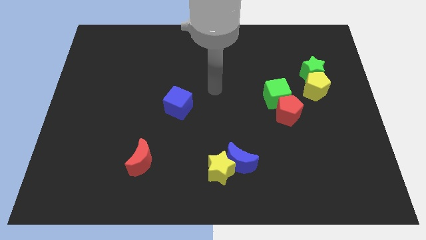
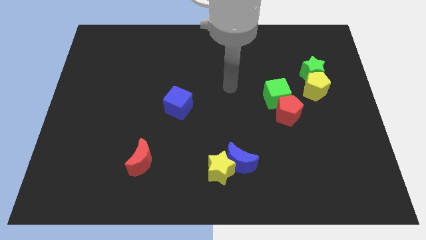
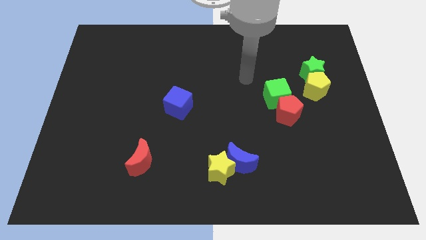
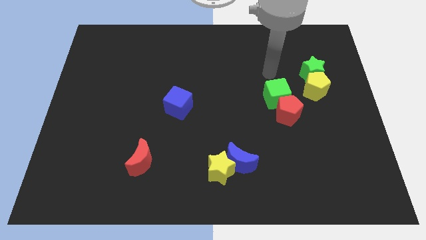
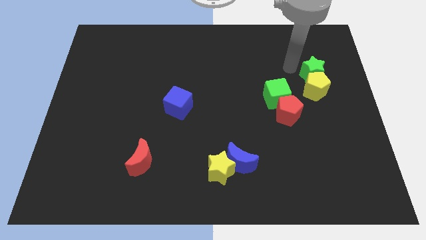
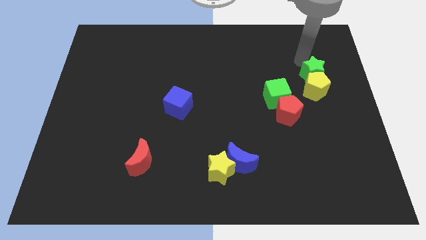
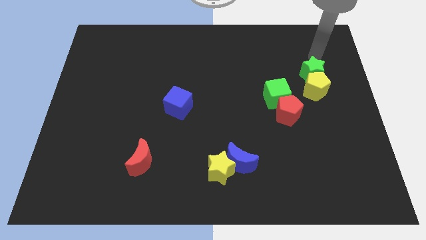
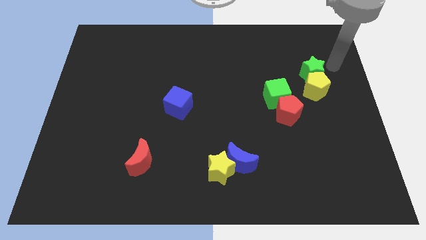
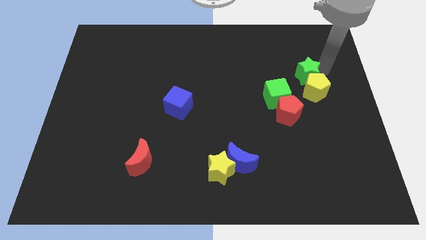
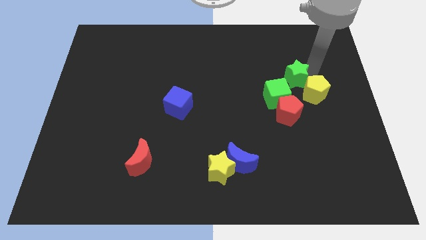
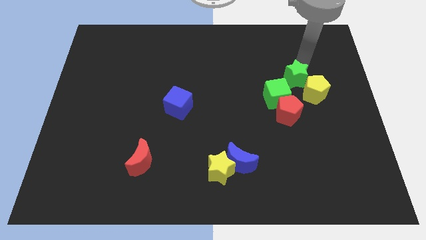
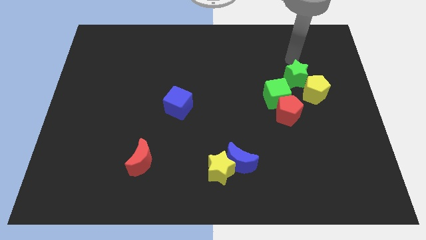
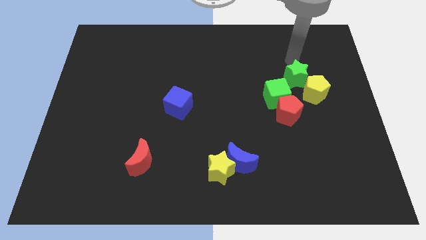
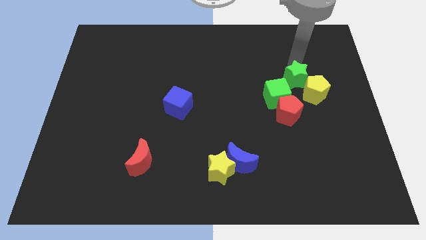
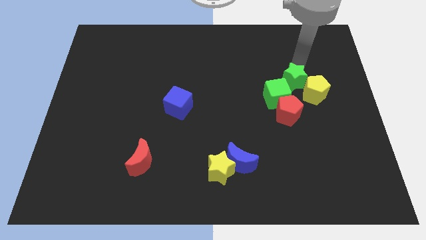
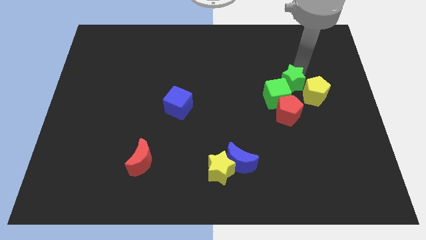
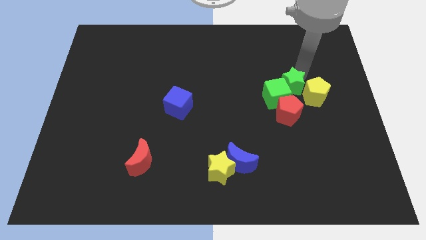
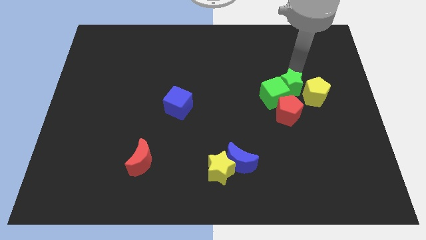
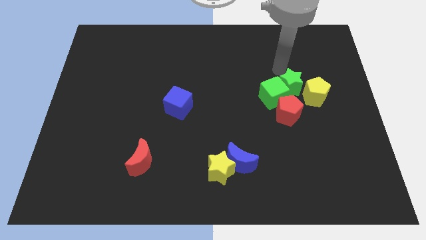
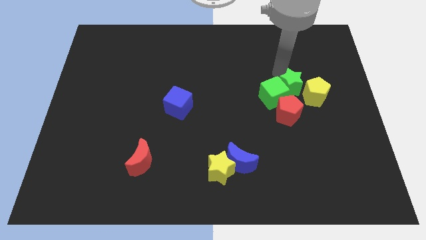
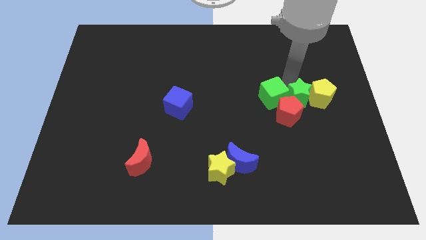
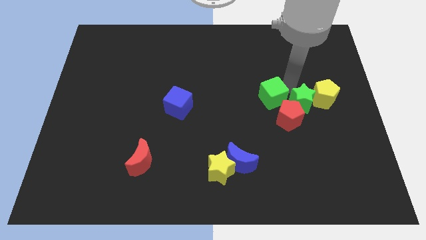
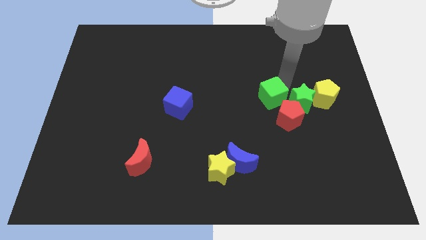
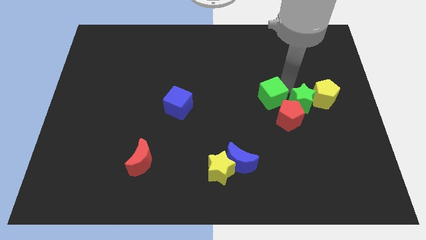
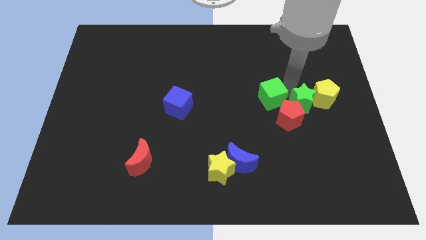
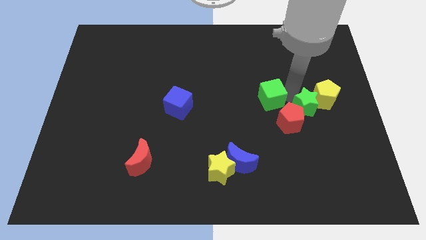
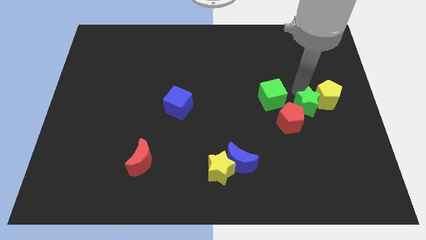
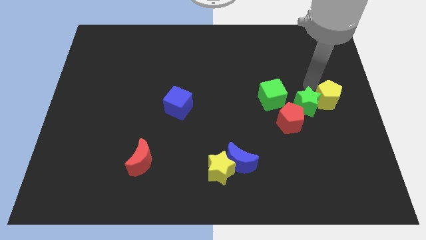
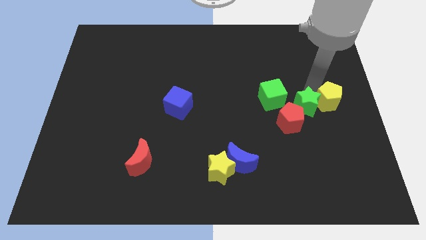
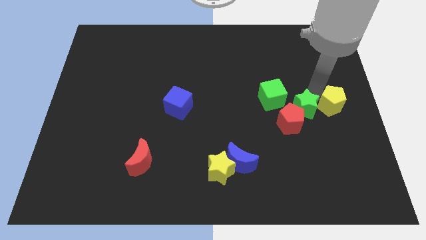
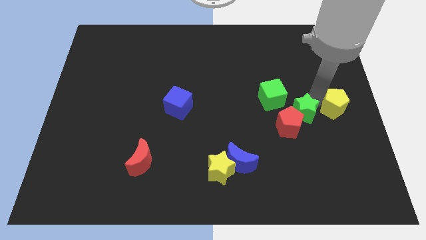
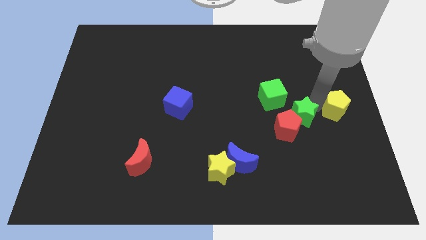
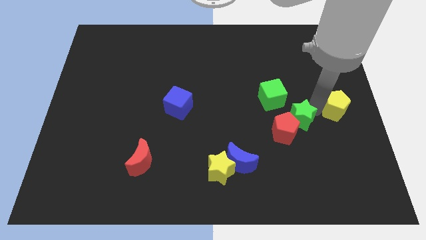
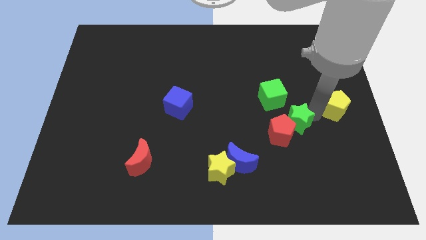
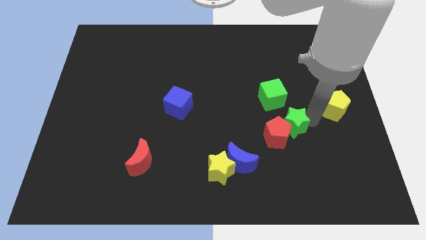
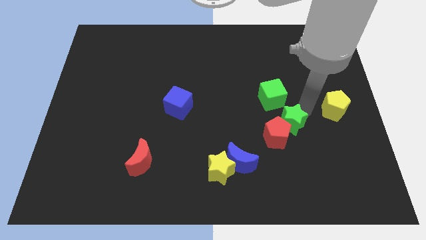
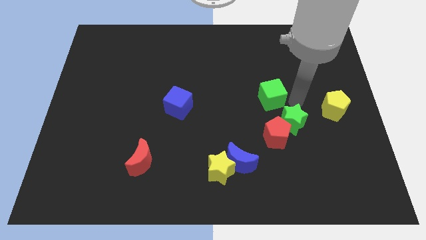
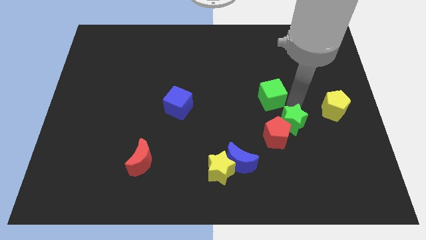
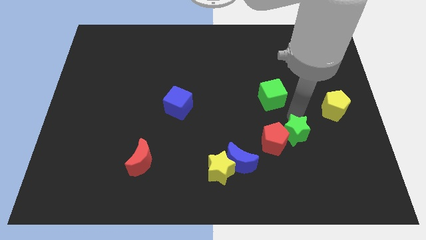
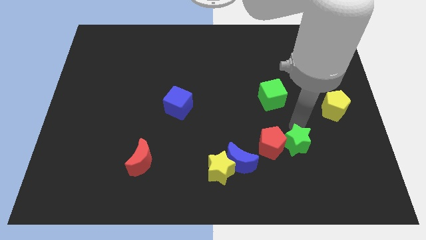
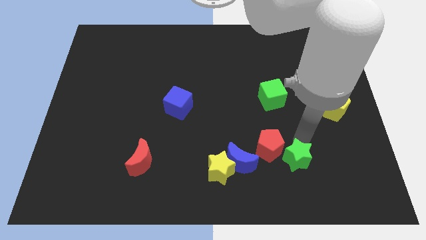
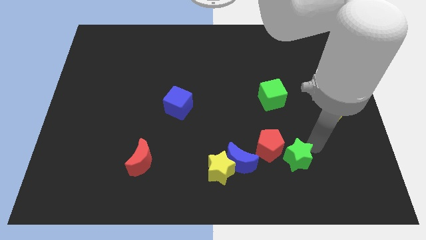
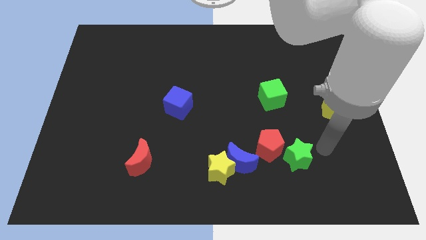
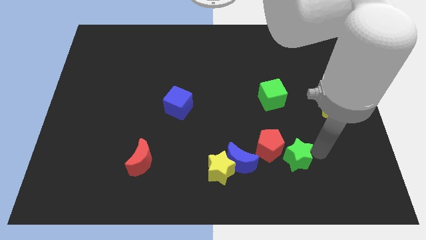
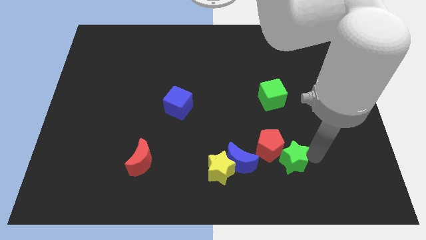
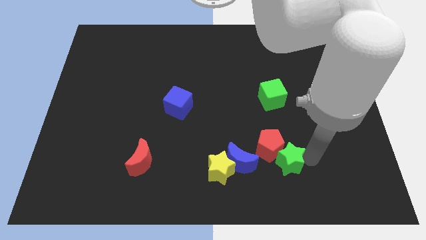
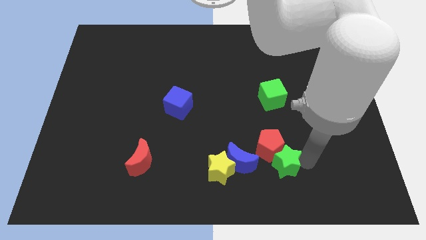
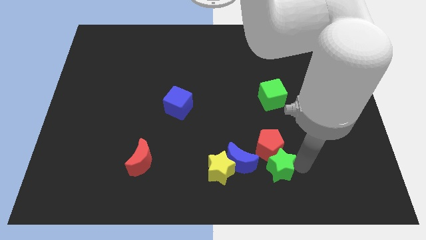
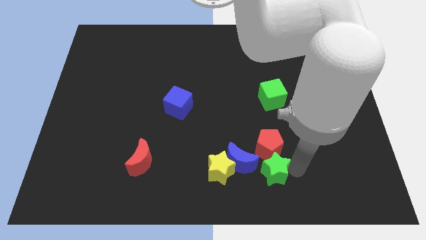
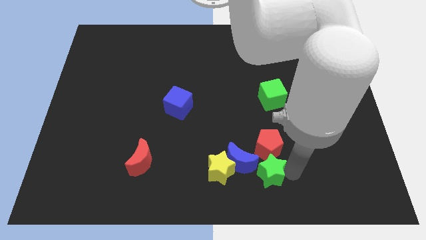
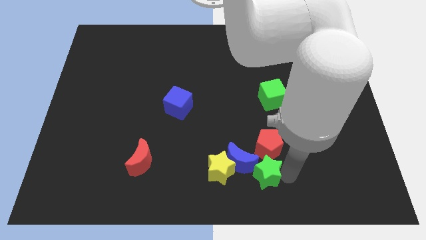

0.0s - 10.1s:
slide the green star to the bottom side
